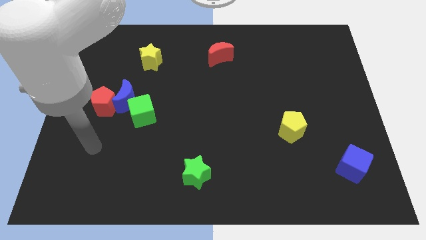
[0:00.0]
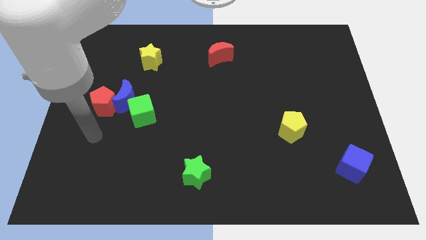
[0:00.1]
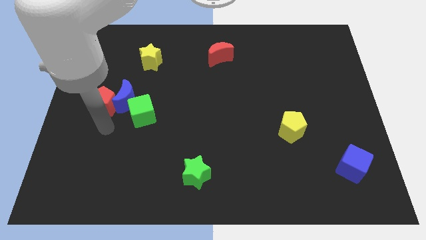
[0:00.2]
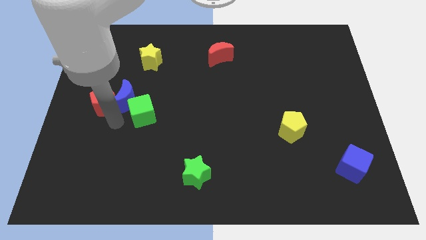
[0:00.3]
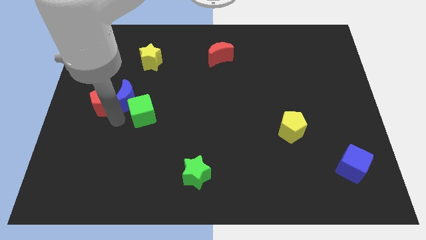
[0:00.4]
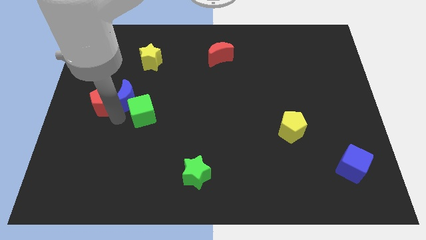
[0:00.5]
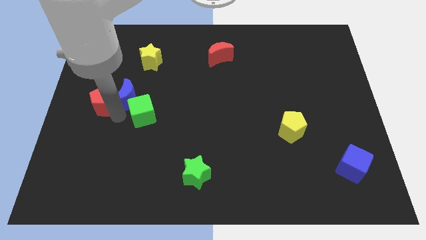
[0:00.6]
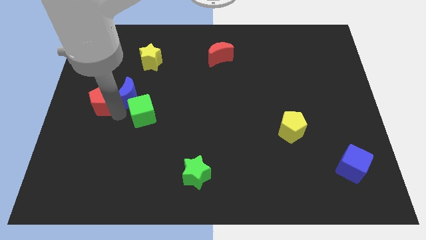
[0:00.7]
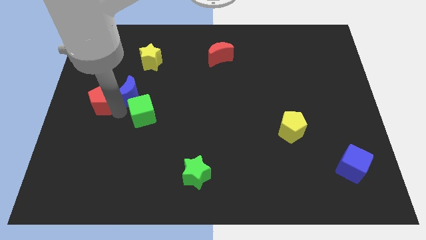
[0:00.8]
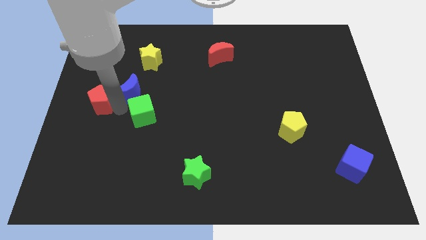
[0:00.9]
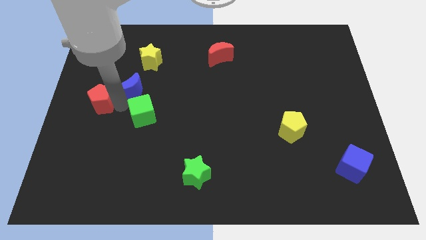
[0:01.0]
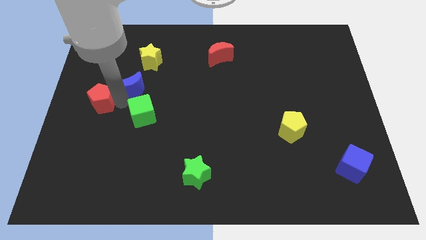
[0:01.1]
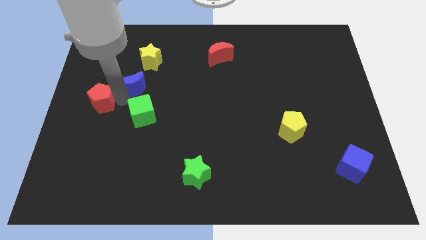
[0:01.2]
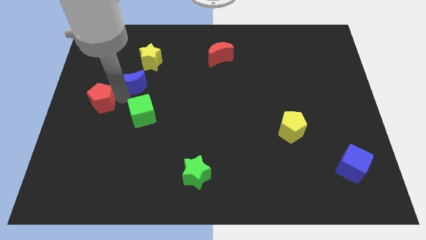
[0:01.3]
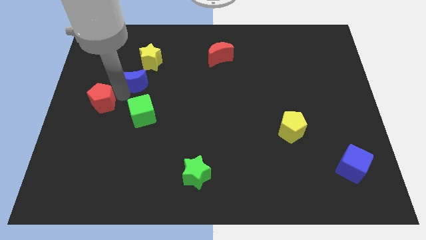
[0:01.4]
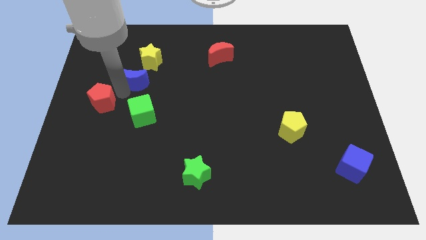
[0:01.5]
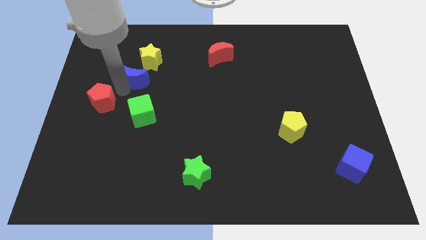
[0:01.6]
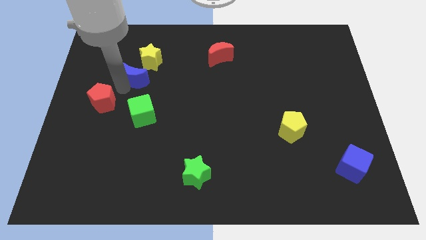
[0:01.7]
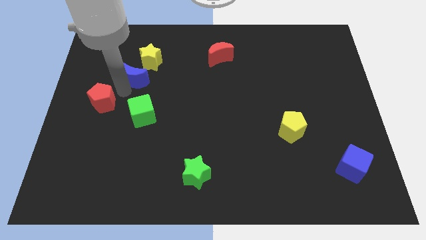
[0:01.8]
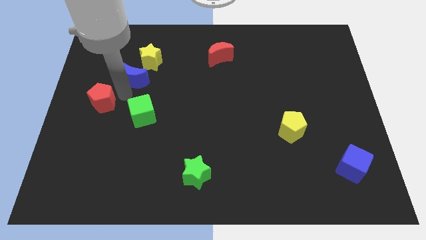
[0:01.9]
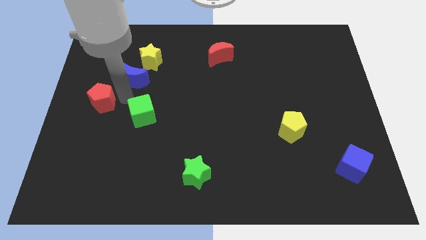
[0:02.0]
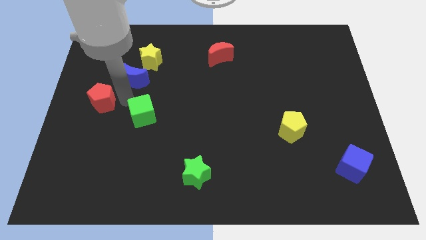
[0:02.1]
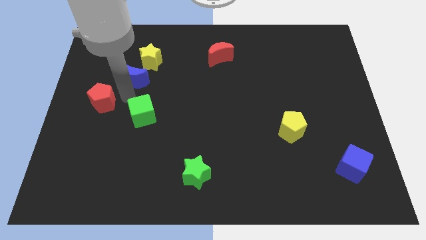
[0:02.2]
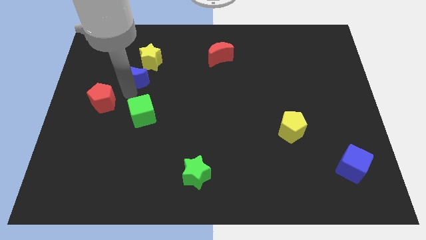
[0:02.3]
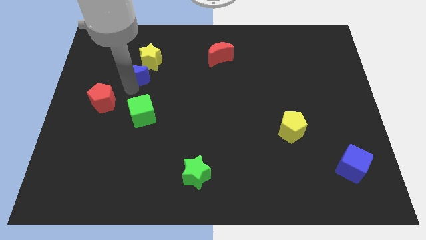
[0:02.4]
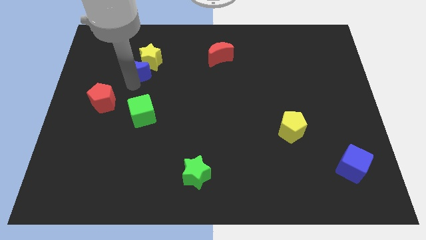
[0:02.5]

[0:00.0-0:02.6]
move the blue moon away from the red pentagon and green cube

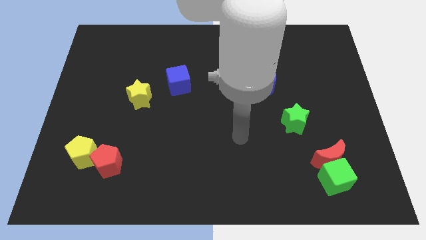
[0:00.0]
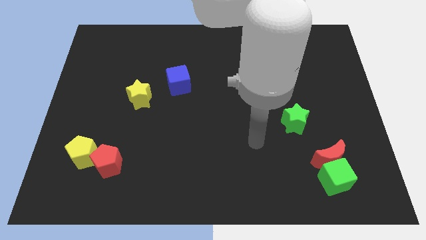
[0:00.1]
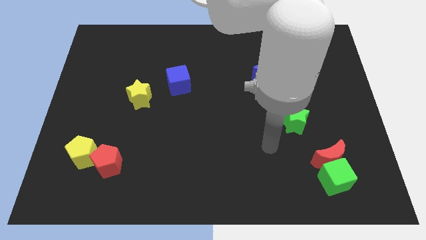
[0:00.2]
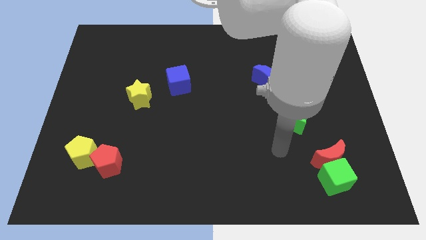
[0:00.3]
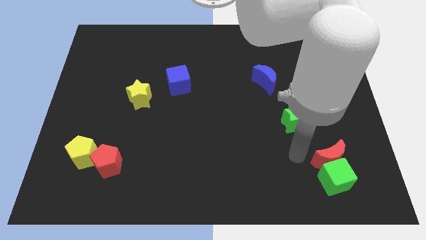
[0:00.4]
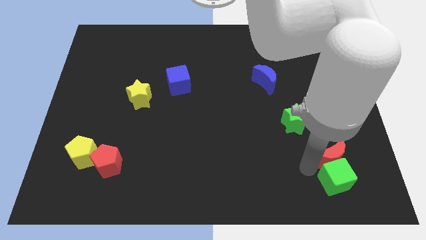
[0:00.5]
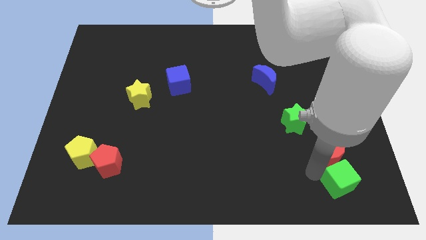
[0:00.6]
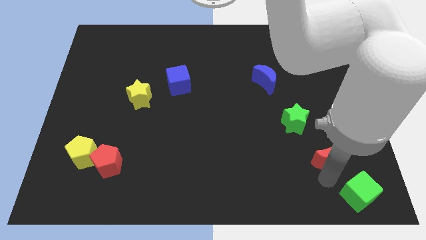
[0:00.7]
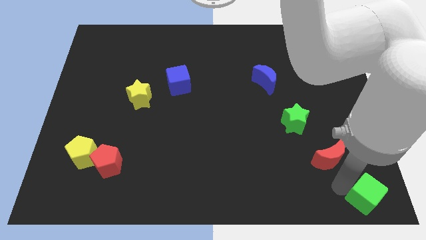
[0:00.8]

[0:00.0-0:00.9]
pull the red moon apart from the green cube

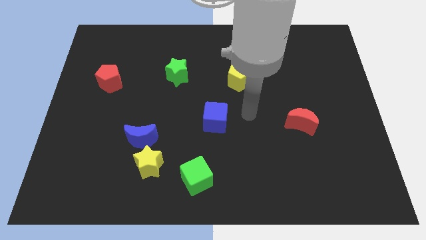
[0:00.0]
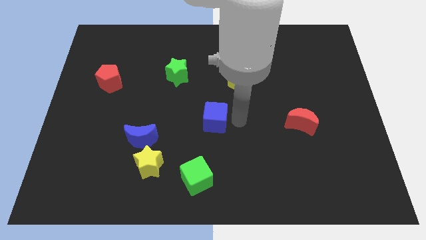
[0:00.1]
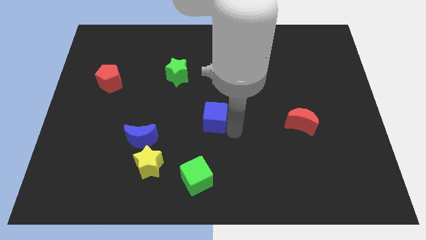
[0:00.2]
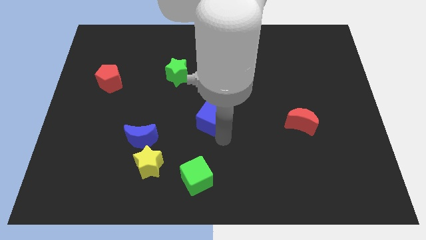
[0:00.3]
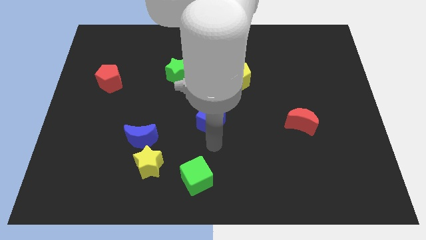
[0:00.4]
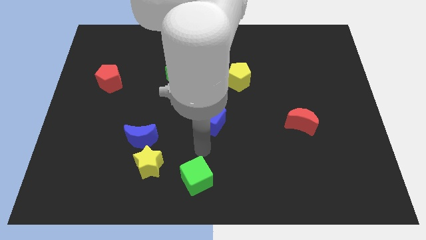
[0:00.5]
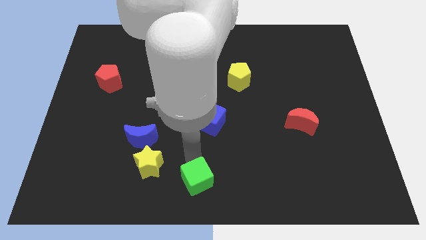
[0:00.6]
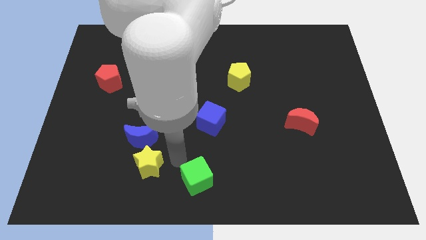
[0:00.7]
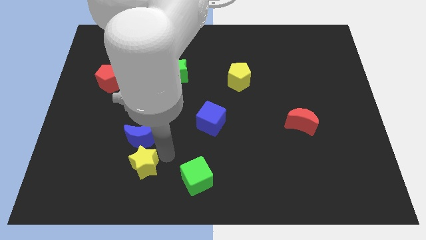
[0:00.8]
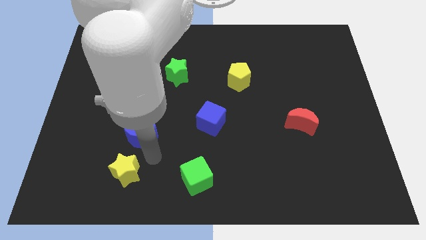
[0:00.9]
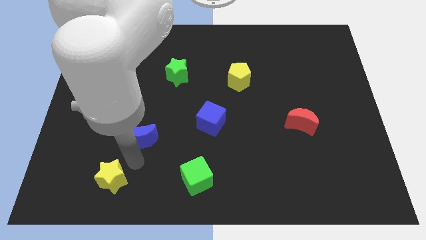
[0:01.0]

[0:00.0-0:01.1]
move the blue moon away from the yellow star

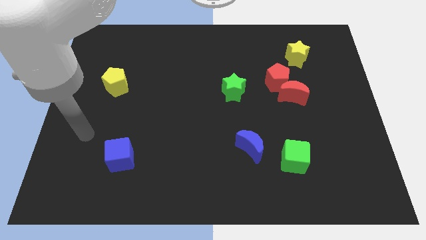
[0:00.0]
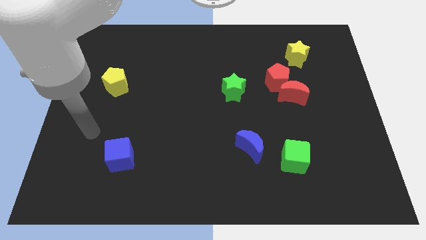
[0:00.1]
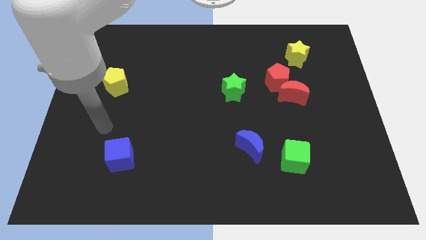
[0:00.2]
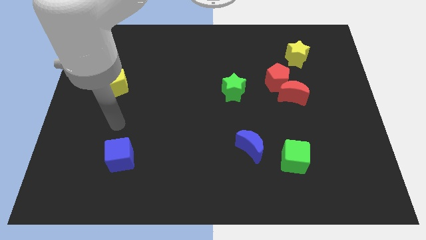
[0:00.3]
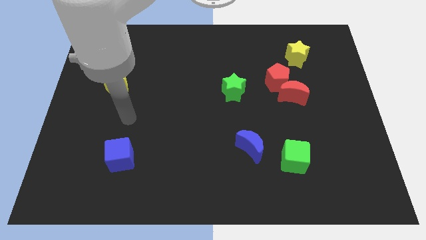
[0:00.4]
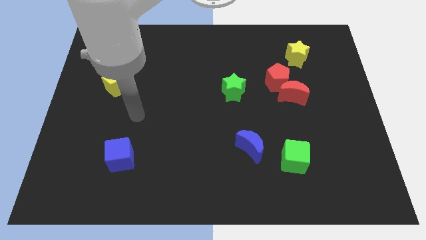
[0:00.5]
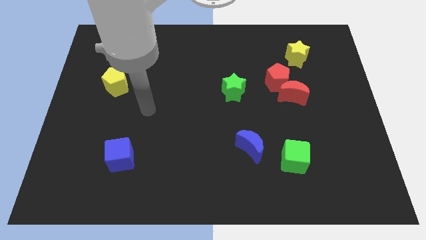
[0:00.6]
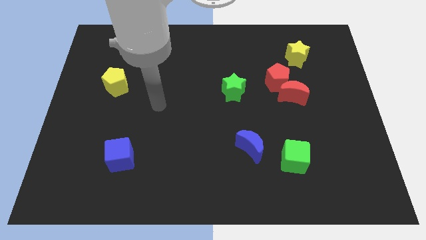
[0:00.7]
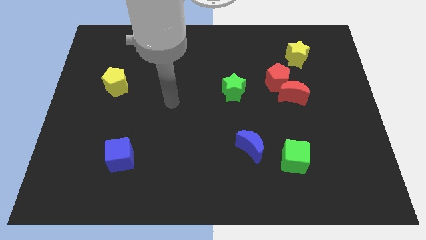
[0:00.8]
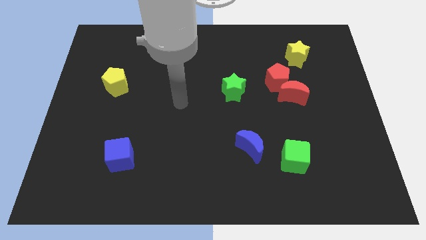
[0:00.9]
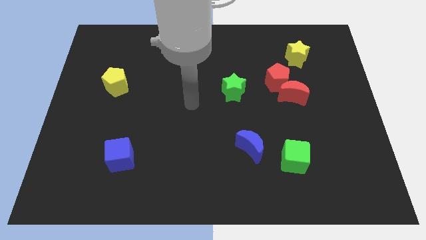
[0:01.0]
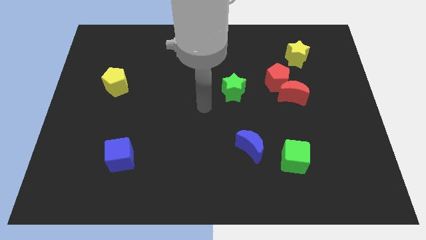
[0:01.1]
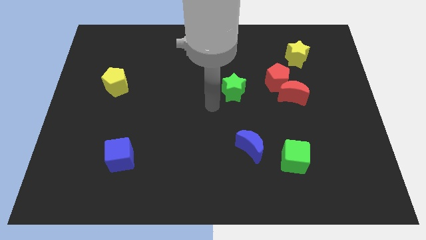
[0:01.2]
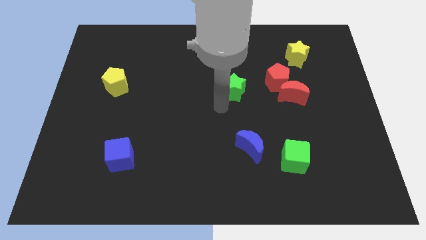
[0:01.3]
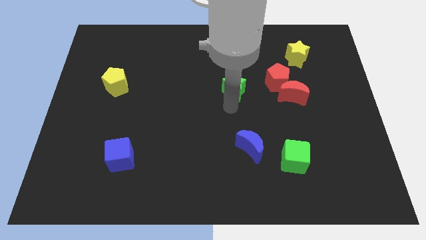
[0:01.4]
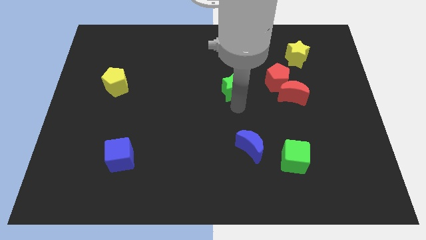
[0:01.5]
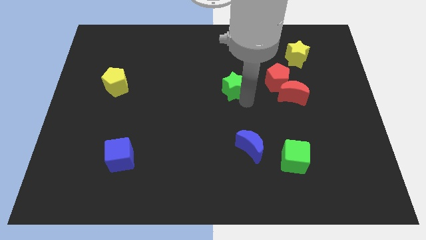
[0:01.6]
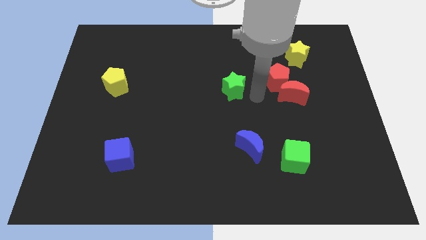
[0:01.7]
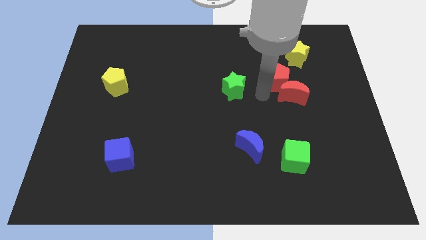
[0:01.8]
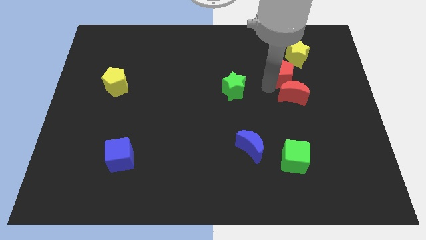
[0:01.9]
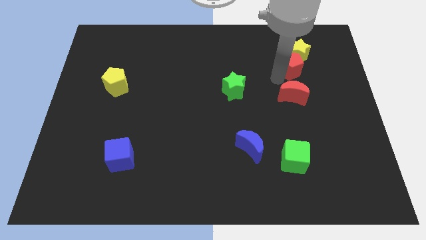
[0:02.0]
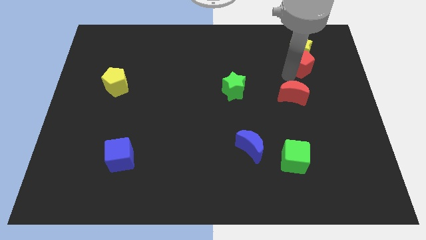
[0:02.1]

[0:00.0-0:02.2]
separate the red moon from the red pentagon

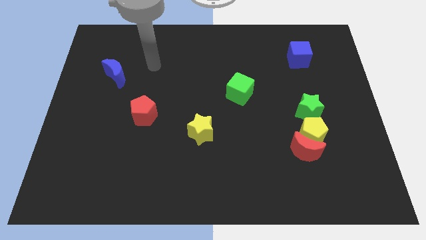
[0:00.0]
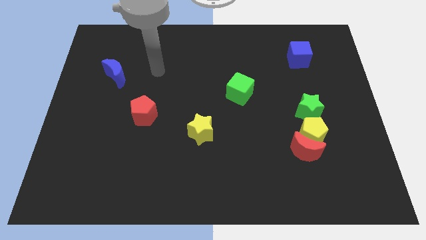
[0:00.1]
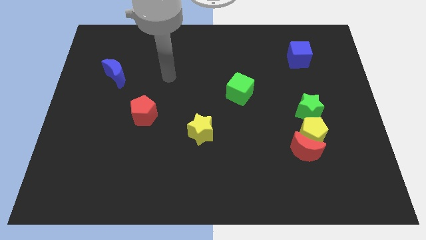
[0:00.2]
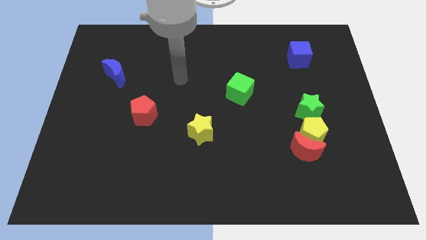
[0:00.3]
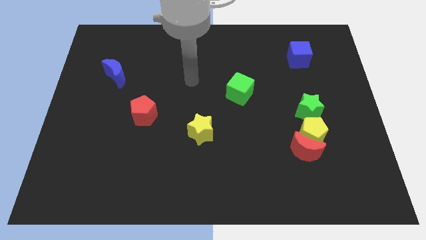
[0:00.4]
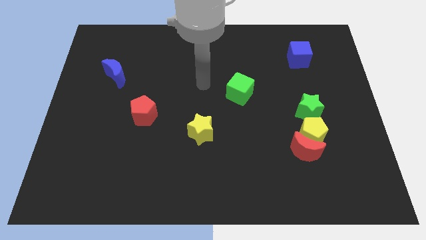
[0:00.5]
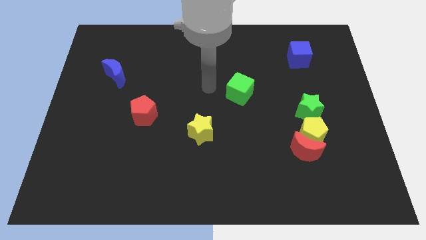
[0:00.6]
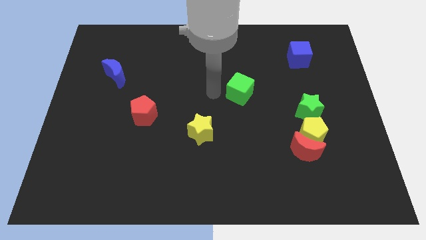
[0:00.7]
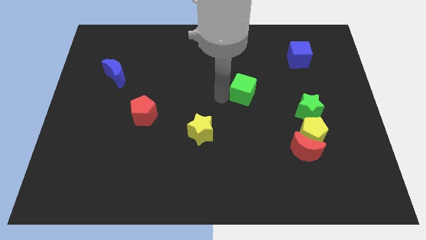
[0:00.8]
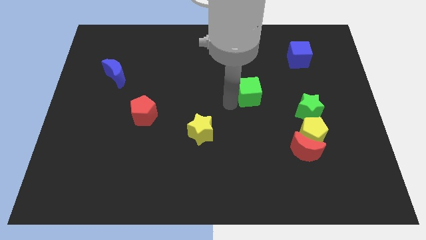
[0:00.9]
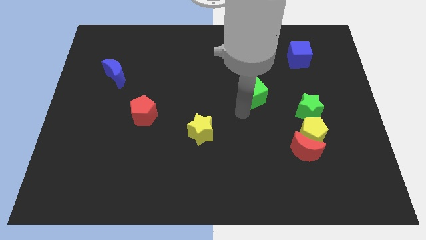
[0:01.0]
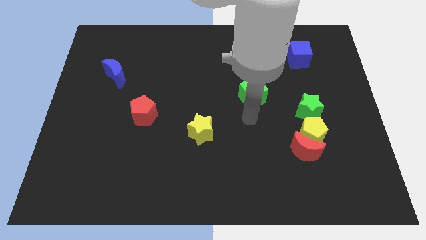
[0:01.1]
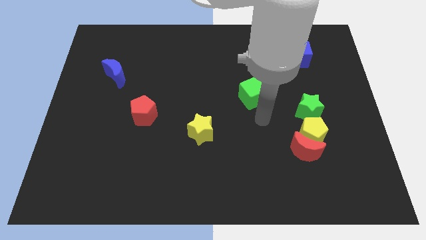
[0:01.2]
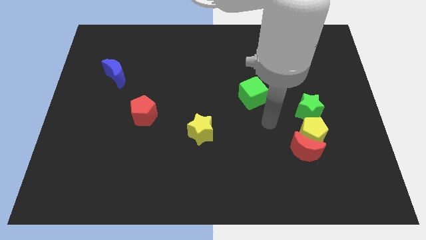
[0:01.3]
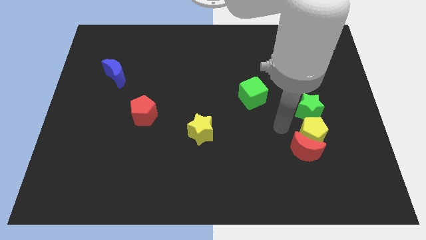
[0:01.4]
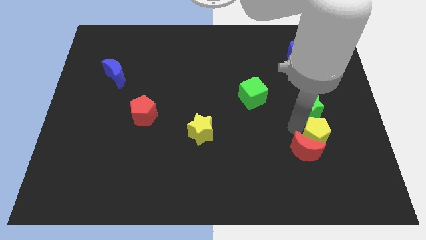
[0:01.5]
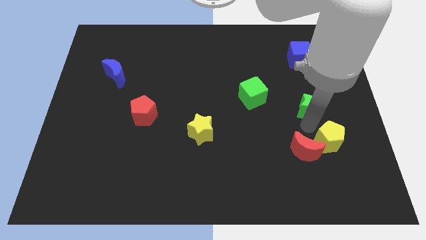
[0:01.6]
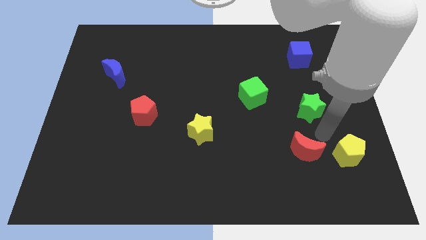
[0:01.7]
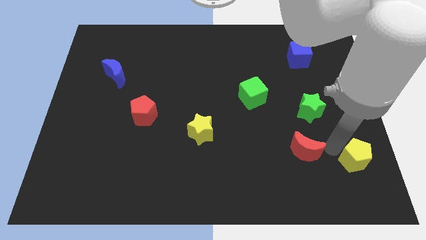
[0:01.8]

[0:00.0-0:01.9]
separate the red moon from the yellow pentagon

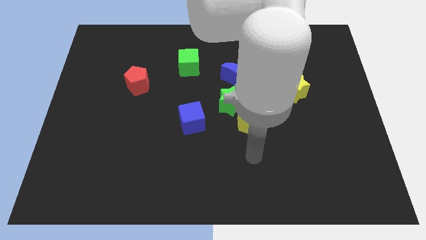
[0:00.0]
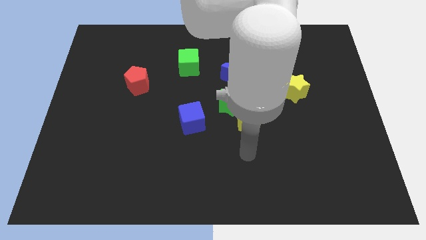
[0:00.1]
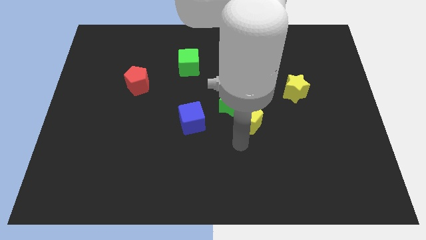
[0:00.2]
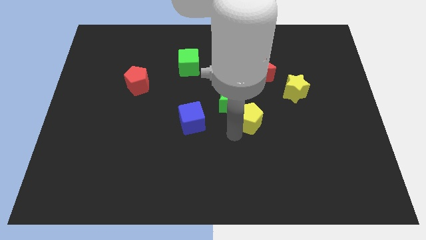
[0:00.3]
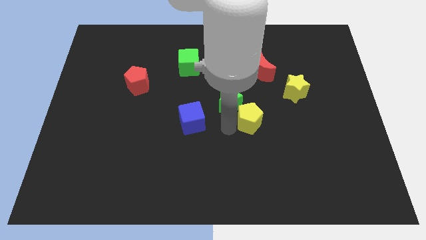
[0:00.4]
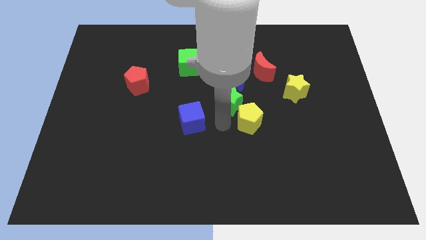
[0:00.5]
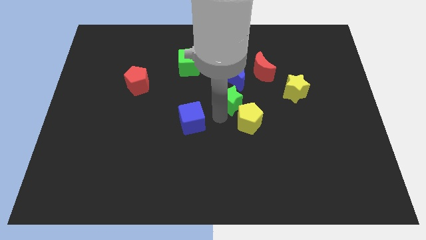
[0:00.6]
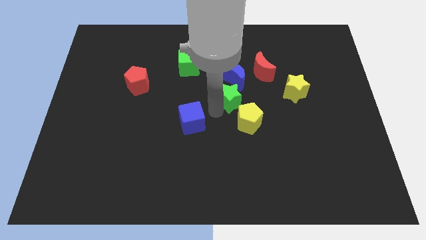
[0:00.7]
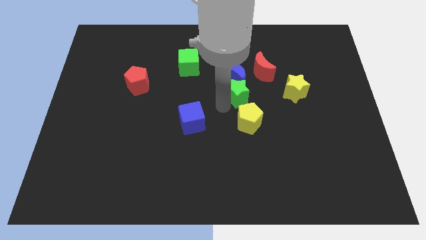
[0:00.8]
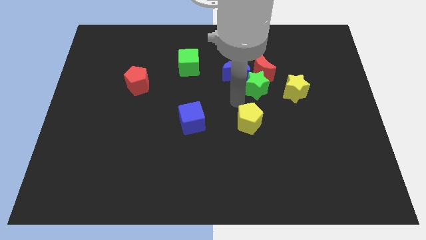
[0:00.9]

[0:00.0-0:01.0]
pull the yellow pentagon apart from the green star
